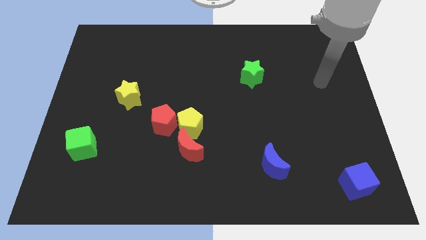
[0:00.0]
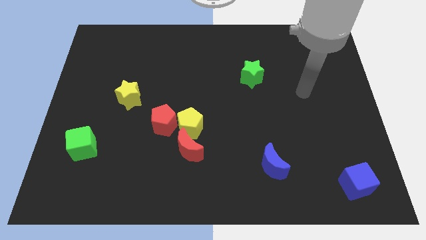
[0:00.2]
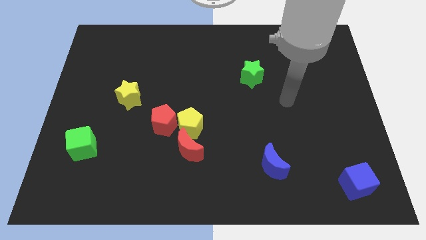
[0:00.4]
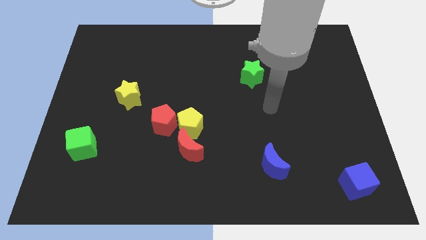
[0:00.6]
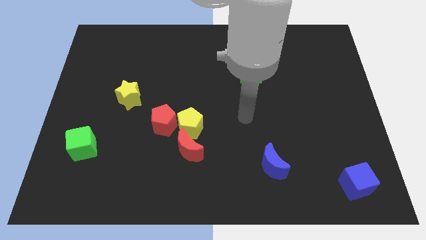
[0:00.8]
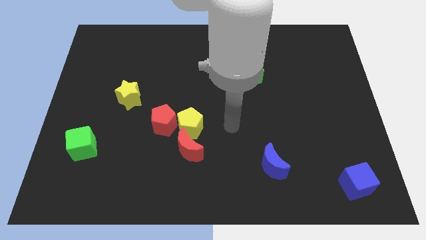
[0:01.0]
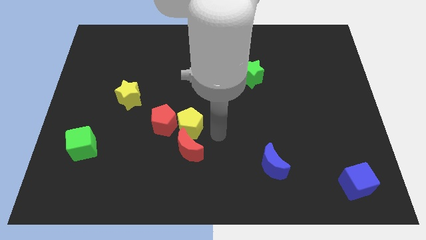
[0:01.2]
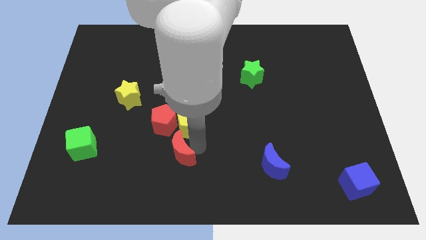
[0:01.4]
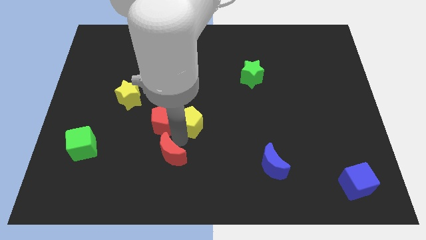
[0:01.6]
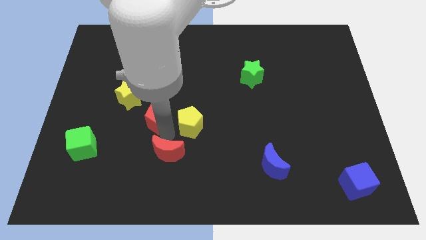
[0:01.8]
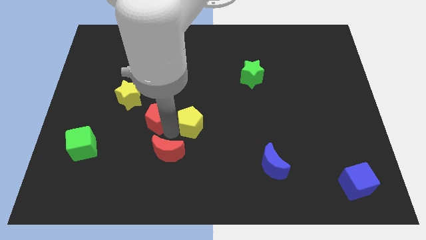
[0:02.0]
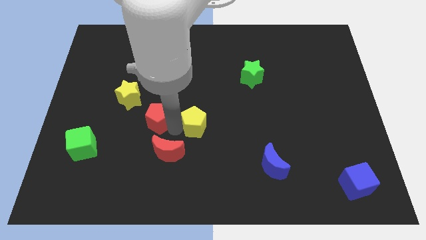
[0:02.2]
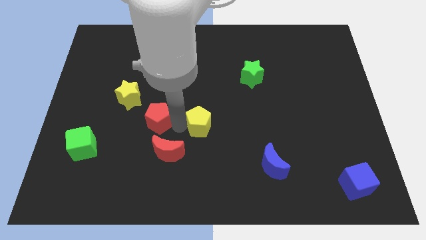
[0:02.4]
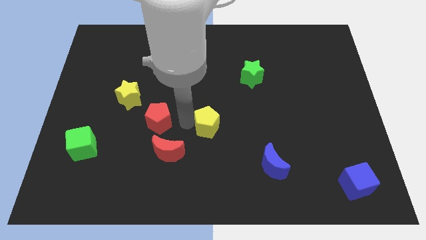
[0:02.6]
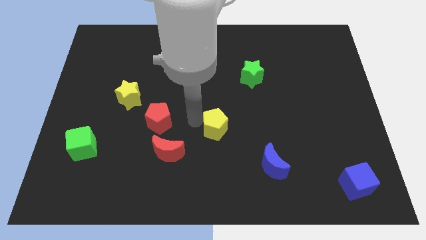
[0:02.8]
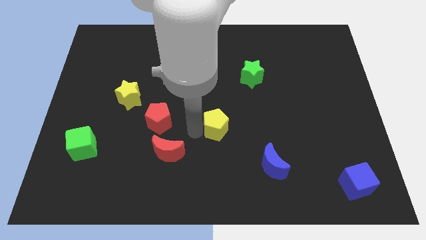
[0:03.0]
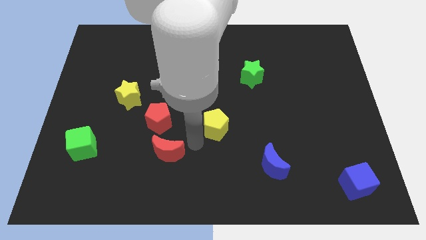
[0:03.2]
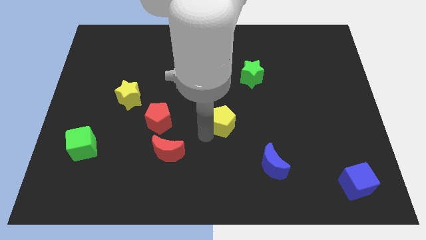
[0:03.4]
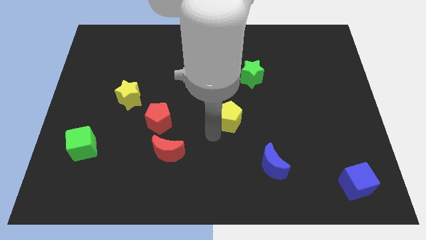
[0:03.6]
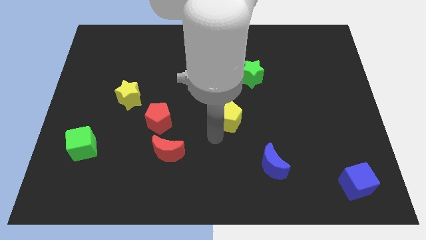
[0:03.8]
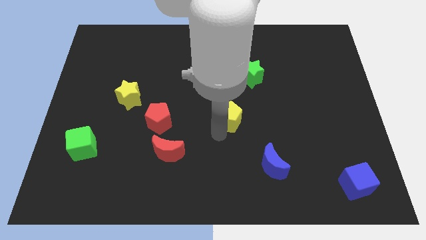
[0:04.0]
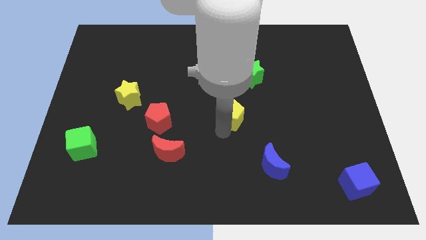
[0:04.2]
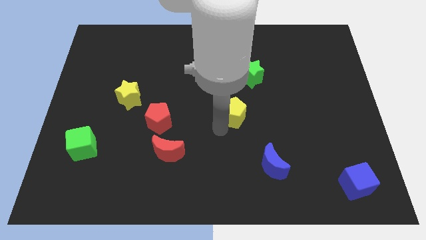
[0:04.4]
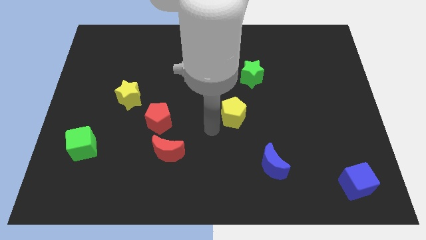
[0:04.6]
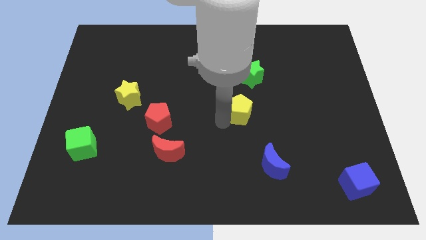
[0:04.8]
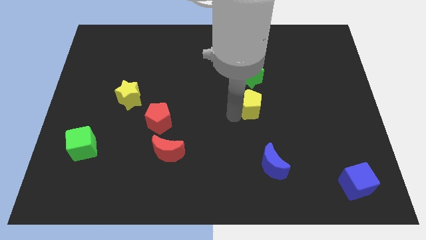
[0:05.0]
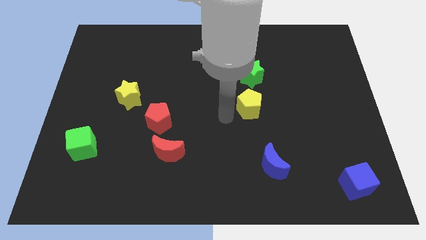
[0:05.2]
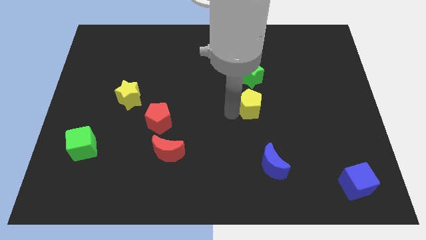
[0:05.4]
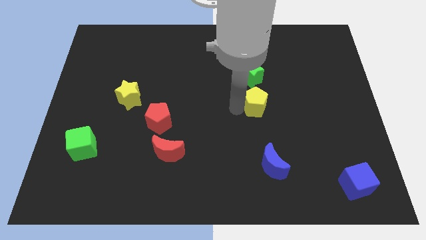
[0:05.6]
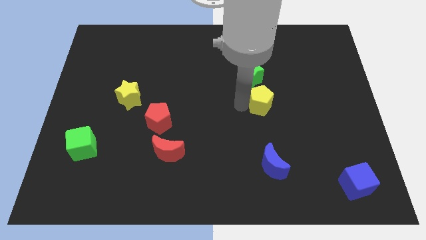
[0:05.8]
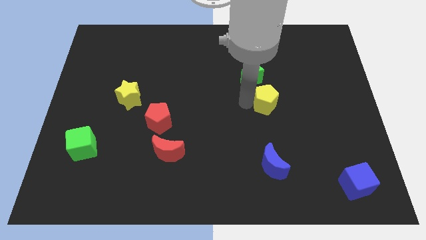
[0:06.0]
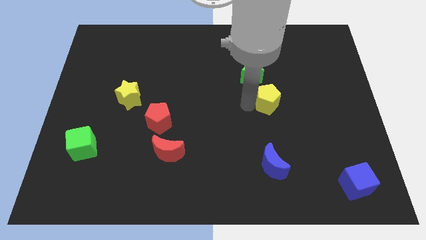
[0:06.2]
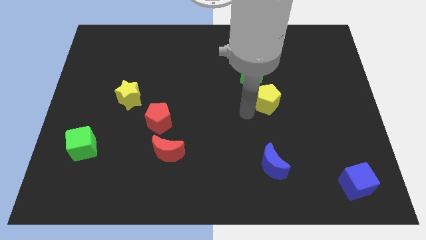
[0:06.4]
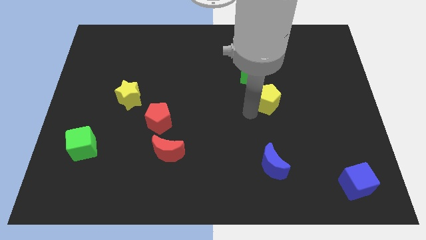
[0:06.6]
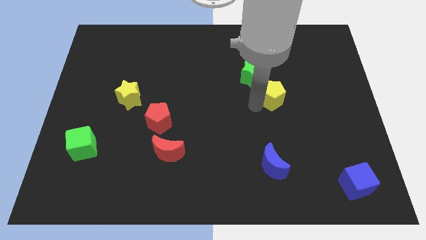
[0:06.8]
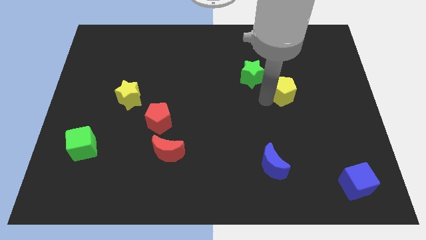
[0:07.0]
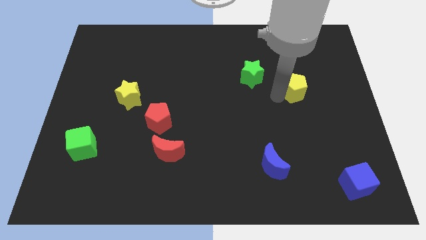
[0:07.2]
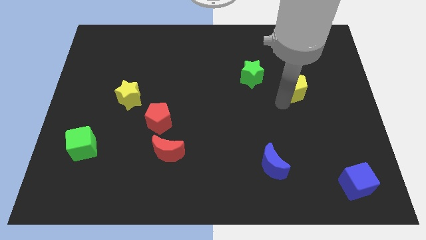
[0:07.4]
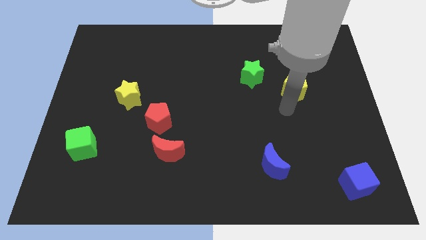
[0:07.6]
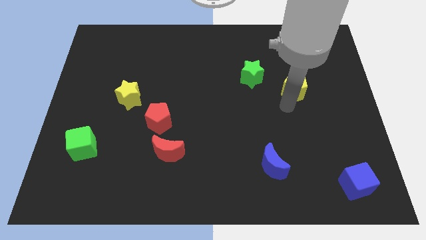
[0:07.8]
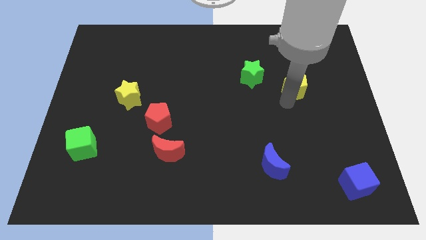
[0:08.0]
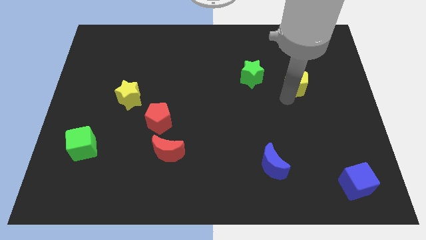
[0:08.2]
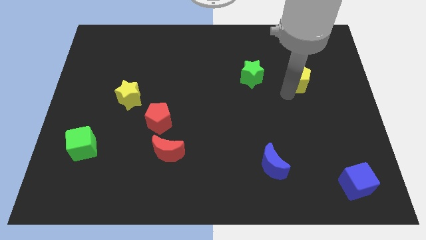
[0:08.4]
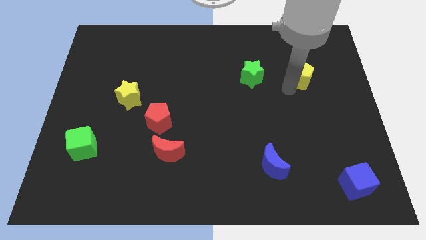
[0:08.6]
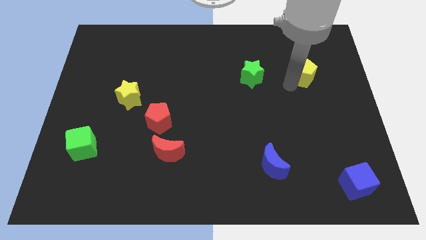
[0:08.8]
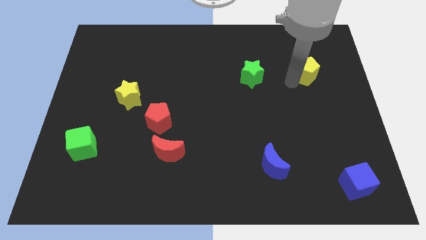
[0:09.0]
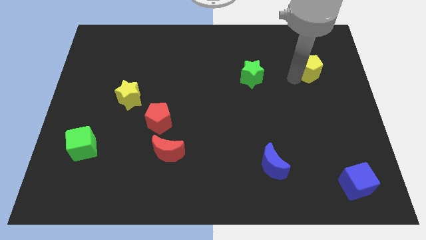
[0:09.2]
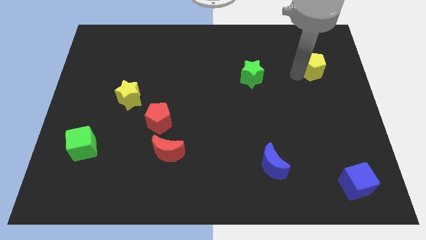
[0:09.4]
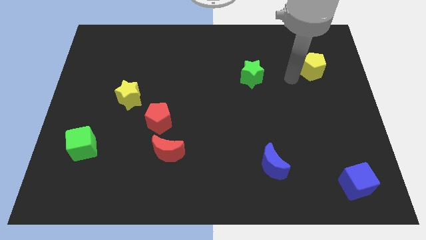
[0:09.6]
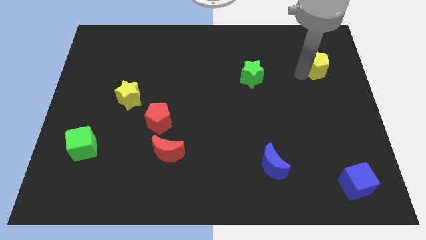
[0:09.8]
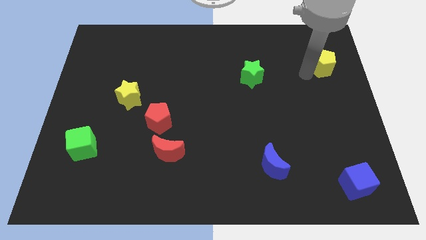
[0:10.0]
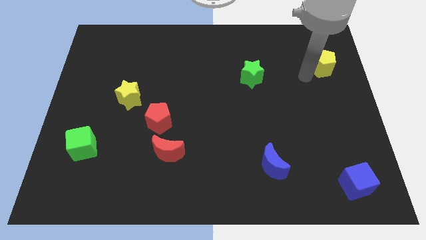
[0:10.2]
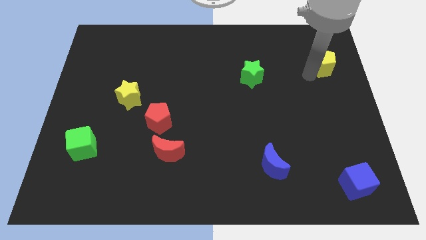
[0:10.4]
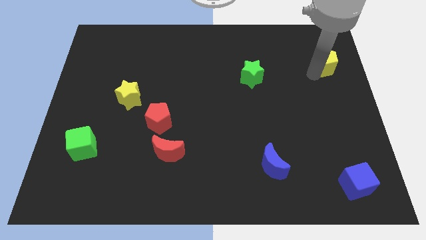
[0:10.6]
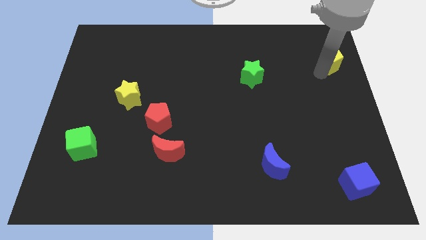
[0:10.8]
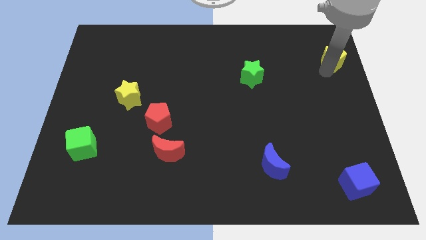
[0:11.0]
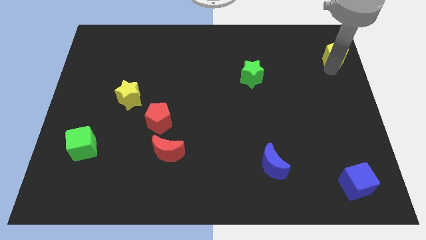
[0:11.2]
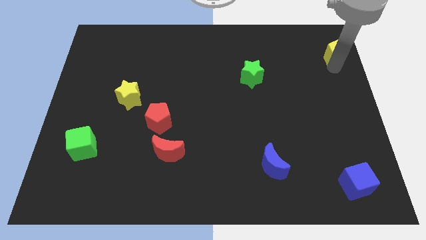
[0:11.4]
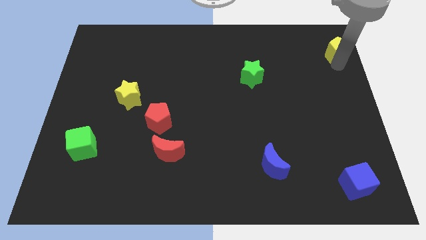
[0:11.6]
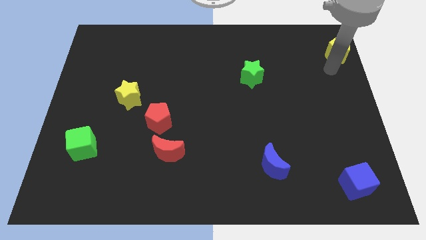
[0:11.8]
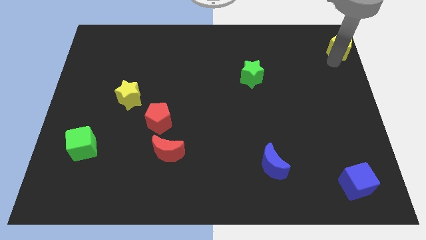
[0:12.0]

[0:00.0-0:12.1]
slide the yellow pentagon to the upper right corner

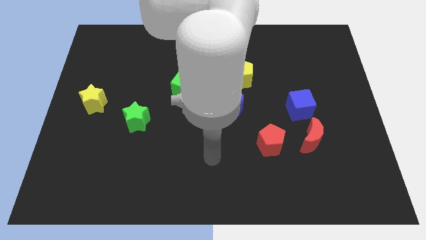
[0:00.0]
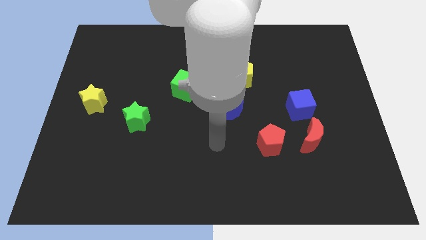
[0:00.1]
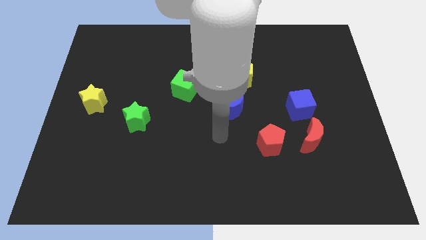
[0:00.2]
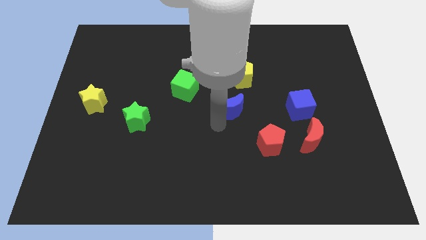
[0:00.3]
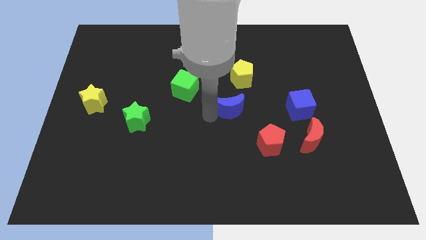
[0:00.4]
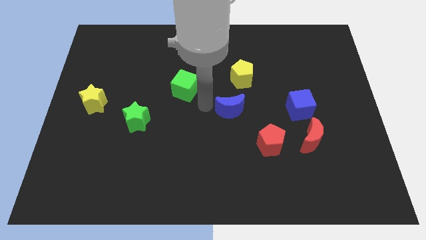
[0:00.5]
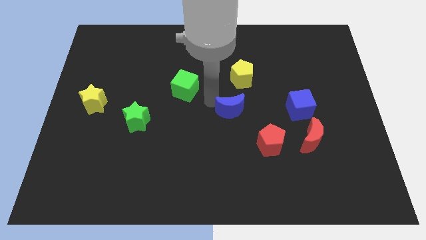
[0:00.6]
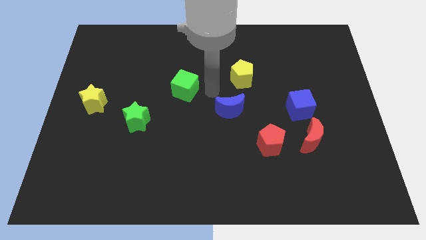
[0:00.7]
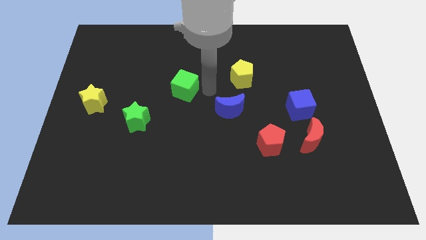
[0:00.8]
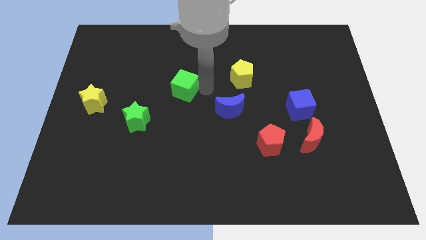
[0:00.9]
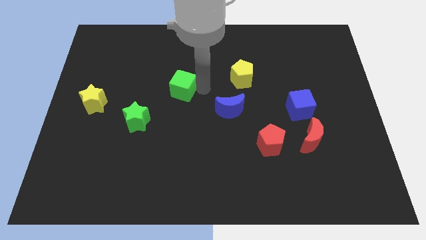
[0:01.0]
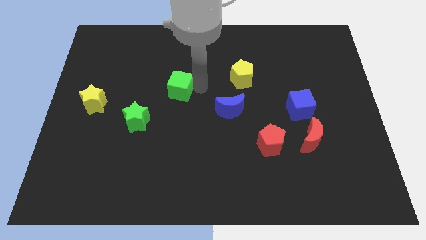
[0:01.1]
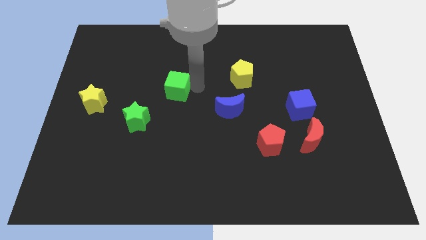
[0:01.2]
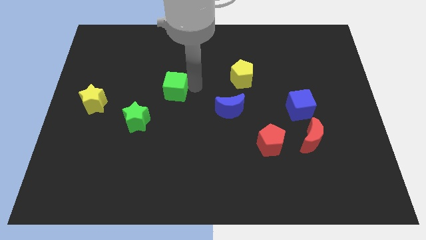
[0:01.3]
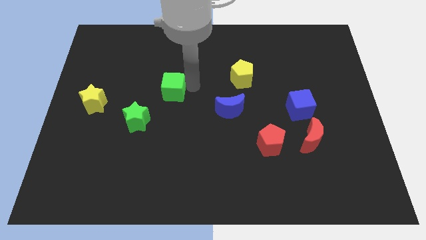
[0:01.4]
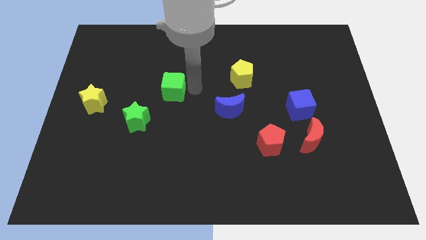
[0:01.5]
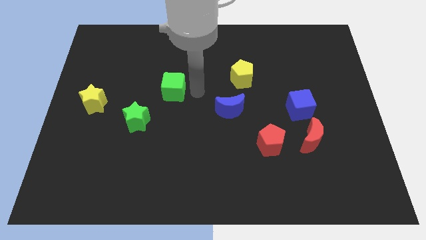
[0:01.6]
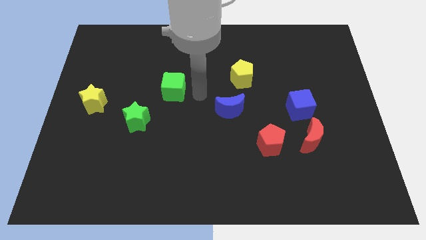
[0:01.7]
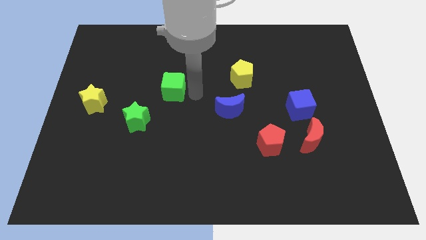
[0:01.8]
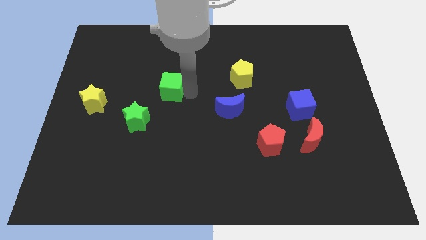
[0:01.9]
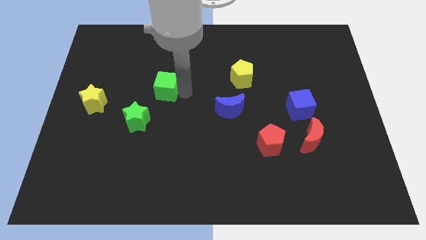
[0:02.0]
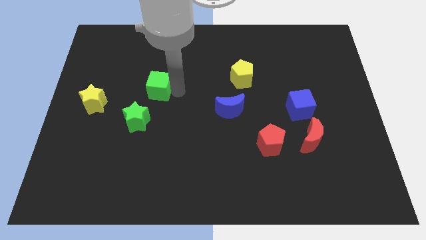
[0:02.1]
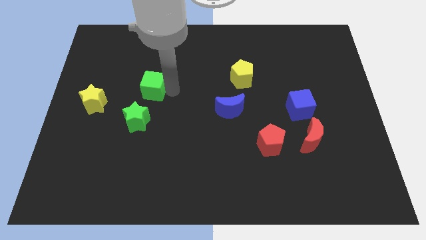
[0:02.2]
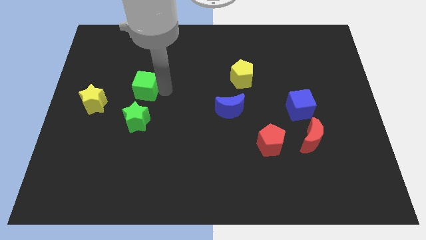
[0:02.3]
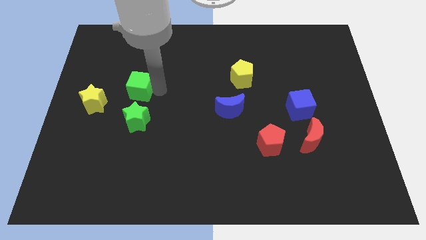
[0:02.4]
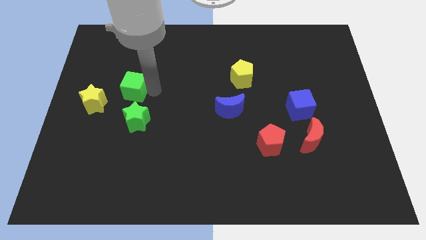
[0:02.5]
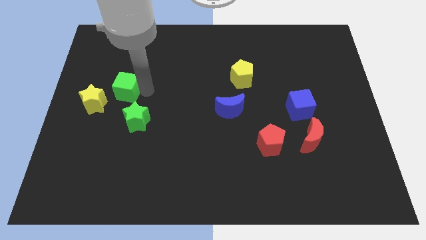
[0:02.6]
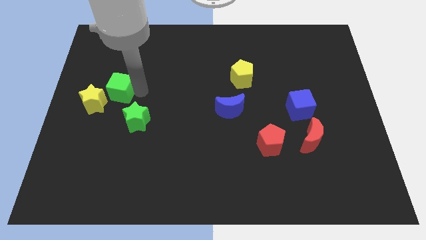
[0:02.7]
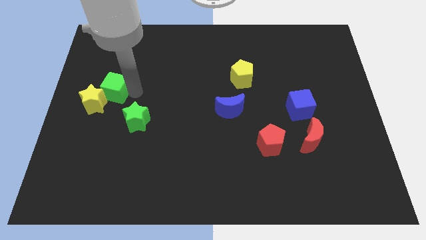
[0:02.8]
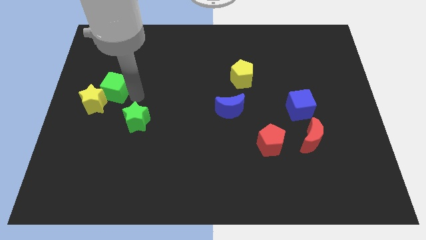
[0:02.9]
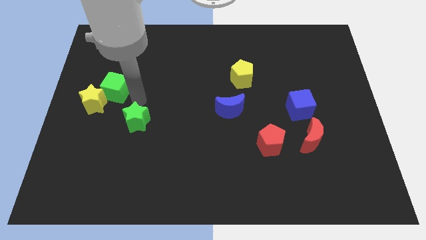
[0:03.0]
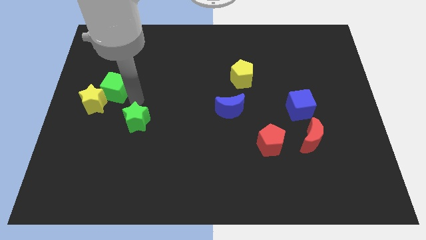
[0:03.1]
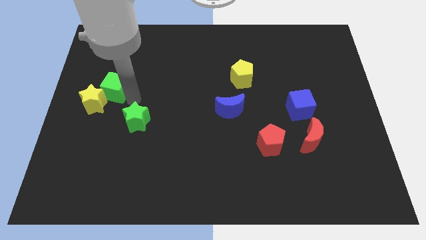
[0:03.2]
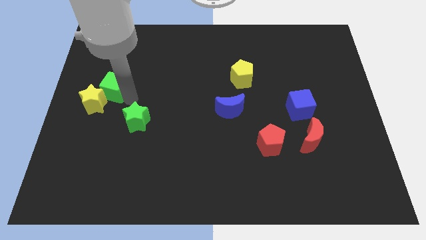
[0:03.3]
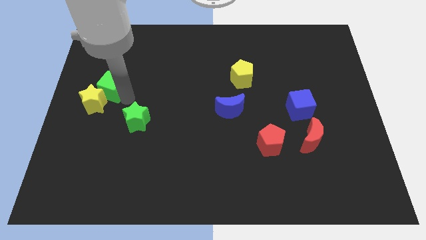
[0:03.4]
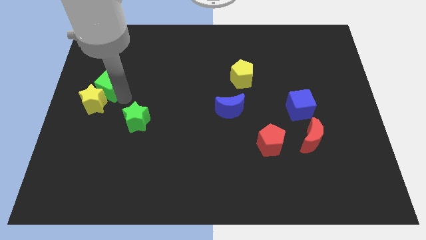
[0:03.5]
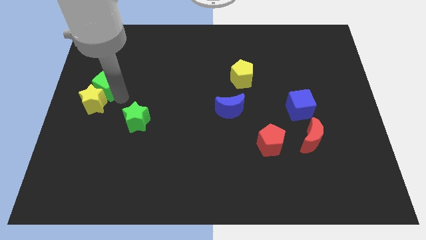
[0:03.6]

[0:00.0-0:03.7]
put the green cube to the left side
